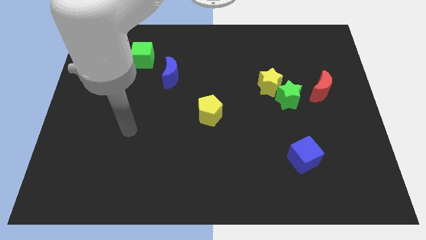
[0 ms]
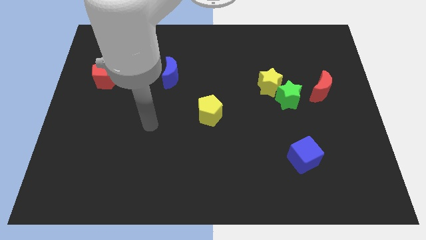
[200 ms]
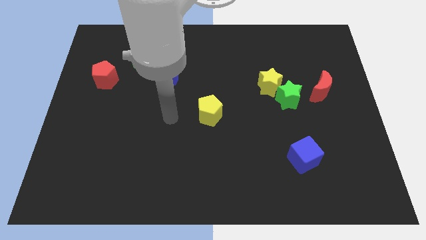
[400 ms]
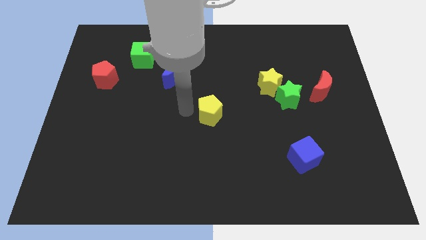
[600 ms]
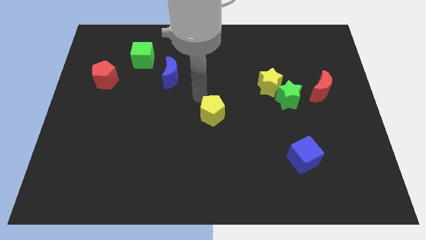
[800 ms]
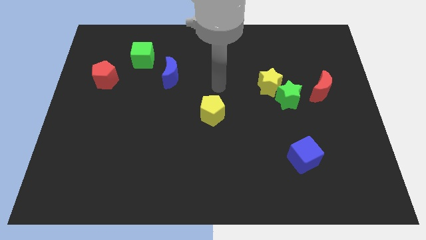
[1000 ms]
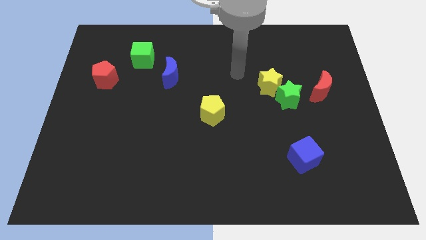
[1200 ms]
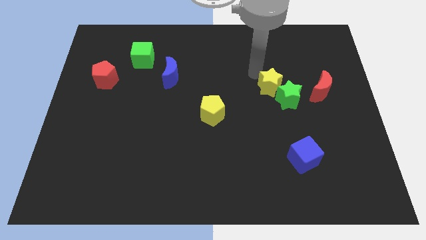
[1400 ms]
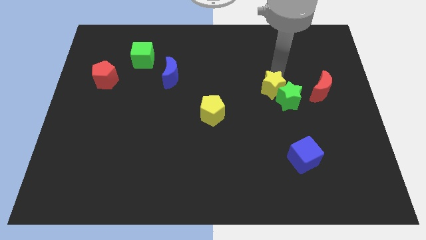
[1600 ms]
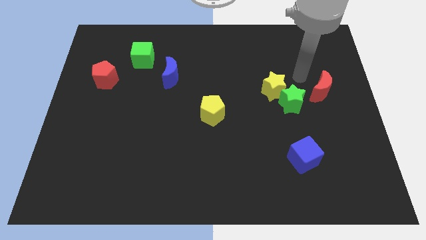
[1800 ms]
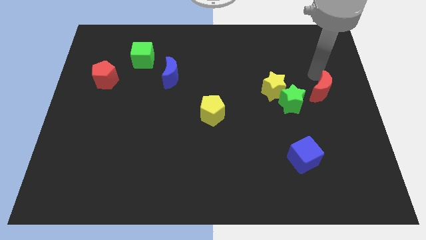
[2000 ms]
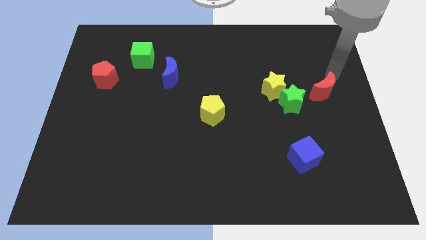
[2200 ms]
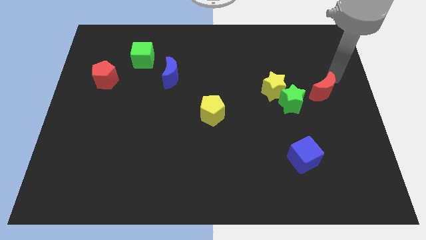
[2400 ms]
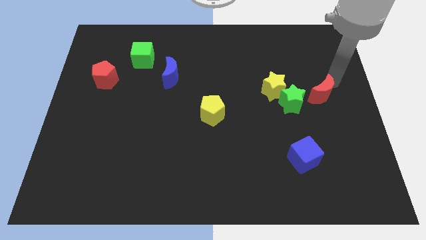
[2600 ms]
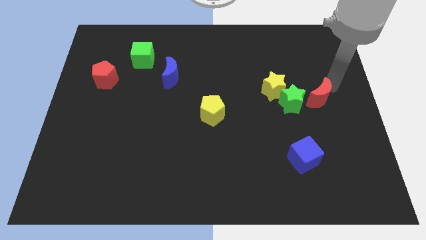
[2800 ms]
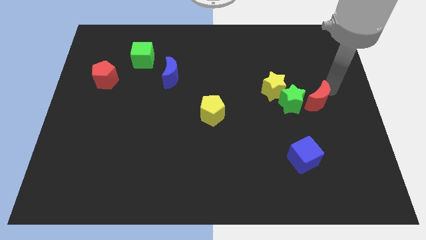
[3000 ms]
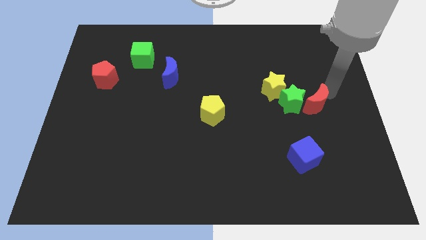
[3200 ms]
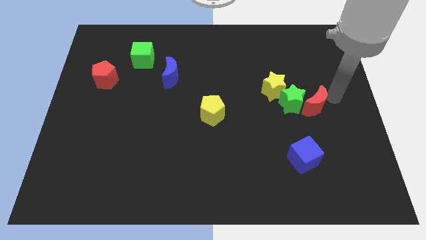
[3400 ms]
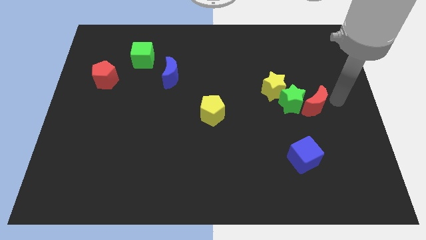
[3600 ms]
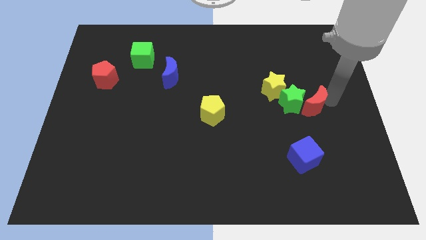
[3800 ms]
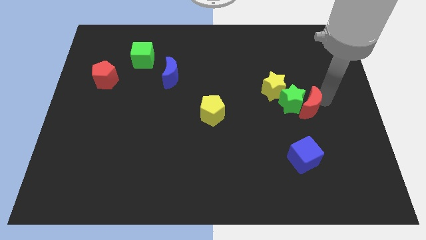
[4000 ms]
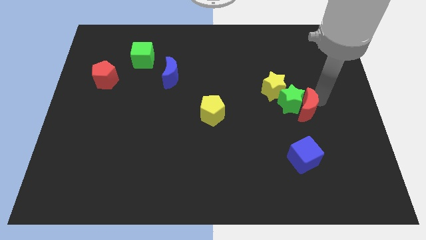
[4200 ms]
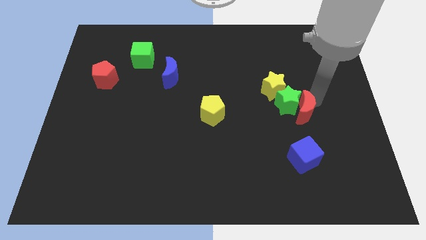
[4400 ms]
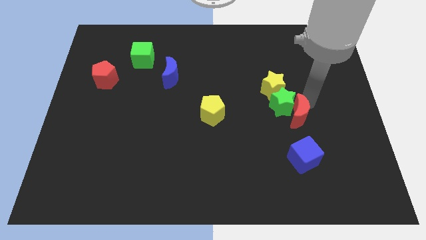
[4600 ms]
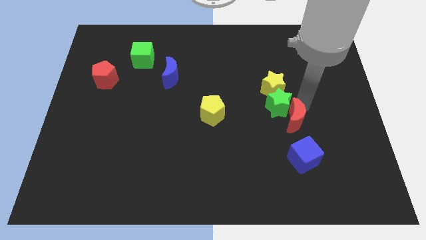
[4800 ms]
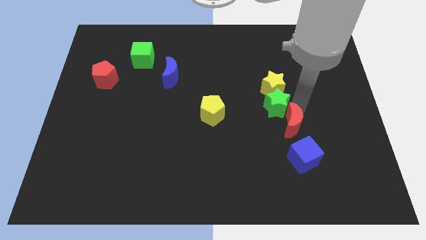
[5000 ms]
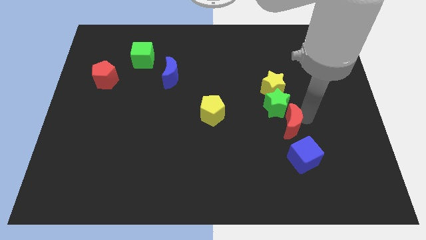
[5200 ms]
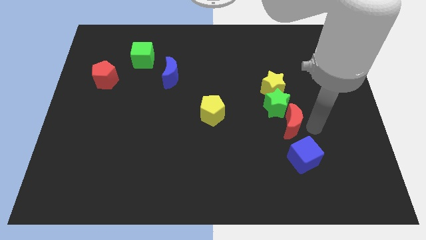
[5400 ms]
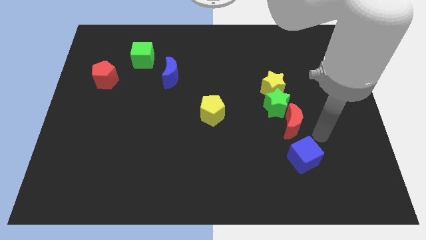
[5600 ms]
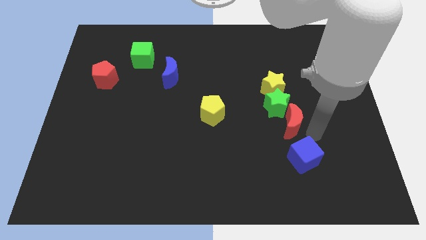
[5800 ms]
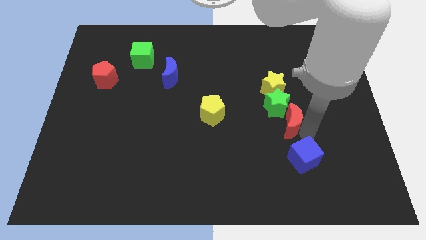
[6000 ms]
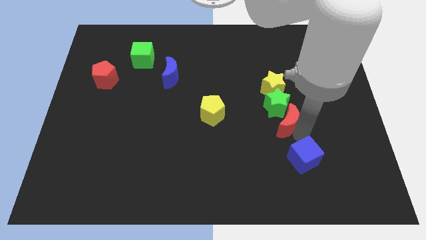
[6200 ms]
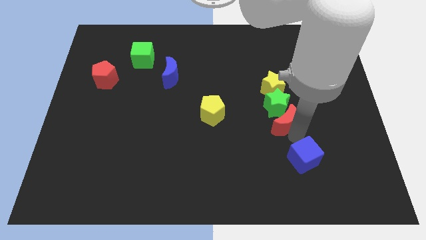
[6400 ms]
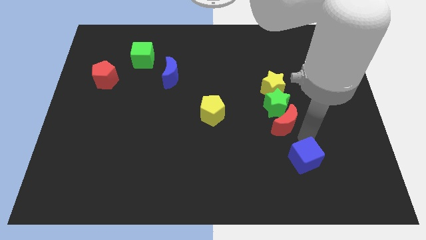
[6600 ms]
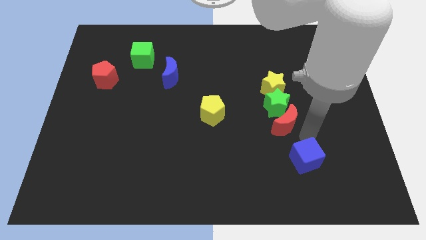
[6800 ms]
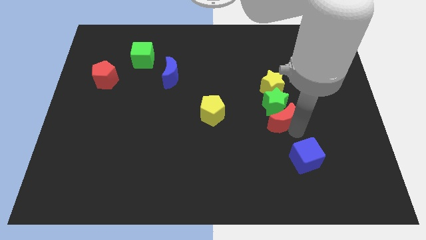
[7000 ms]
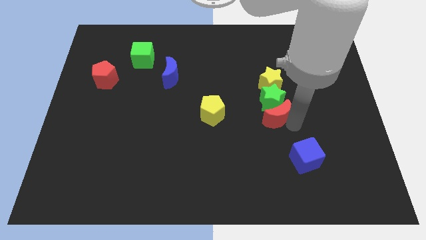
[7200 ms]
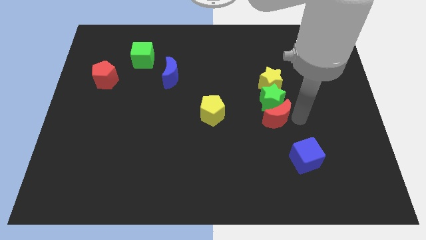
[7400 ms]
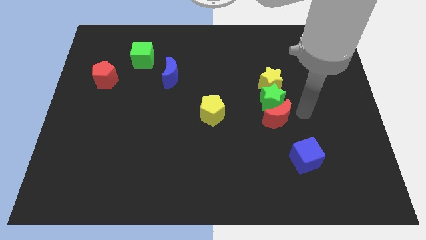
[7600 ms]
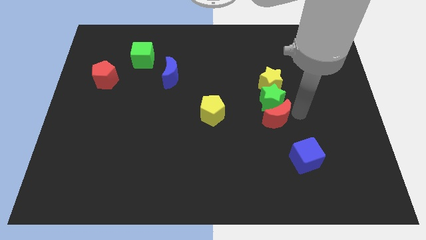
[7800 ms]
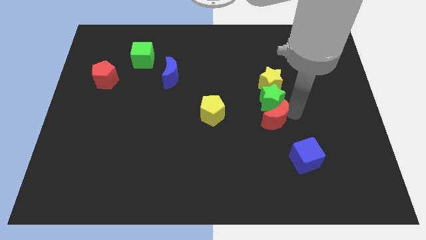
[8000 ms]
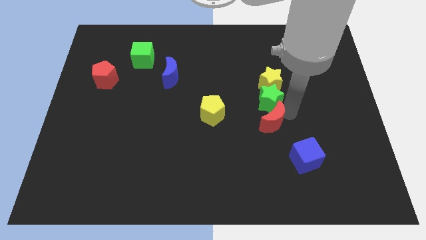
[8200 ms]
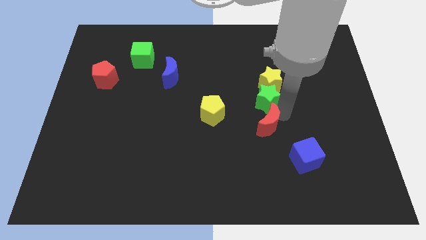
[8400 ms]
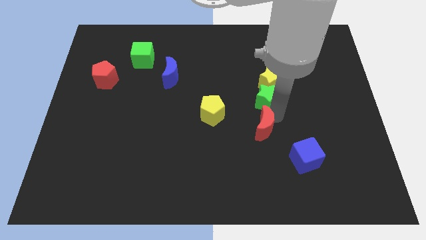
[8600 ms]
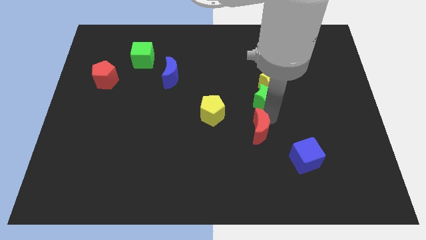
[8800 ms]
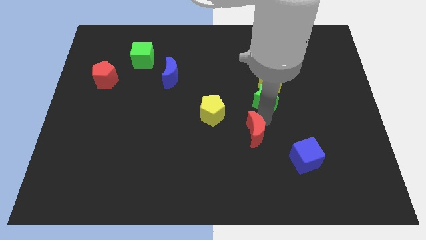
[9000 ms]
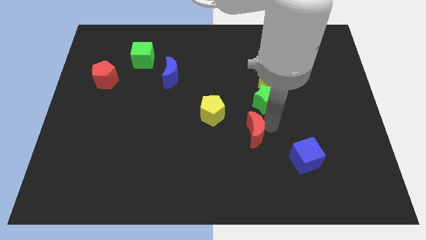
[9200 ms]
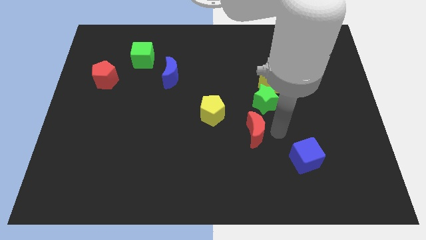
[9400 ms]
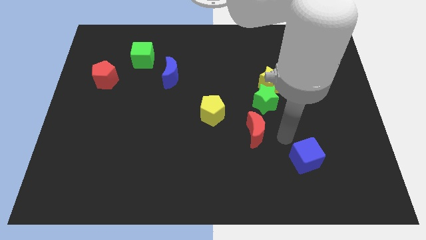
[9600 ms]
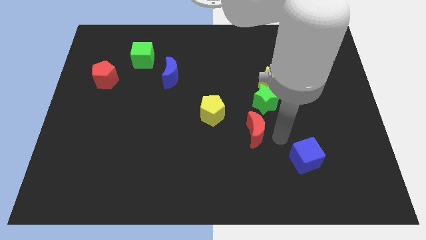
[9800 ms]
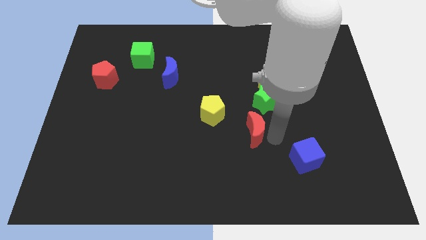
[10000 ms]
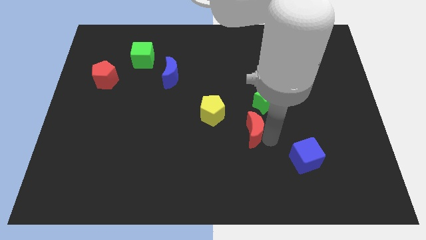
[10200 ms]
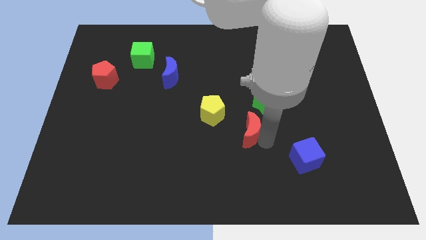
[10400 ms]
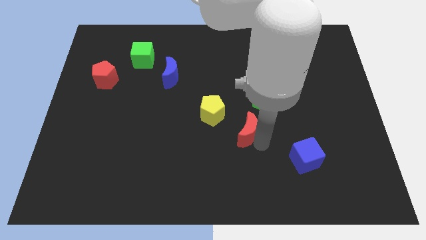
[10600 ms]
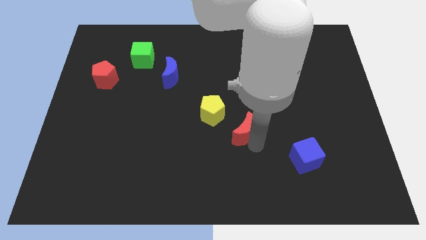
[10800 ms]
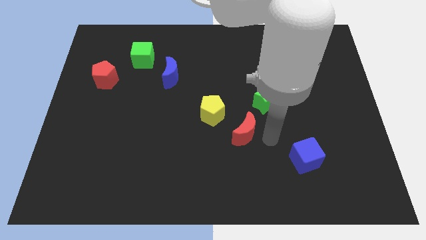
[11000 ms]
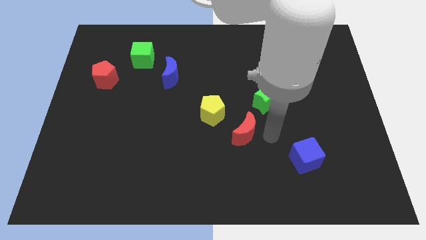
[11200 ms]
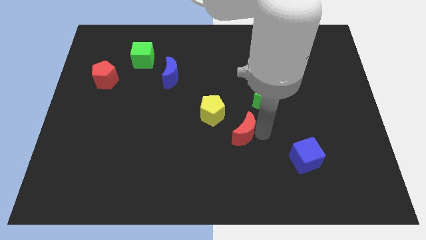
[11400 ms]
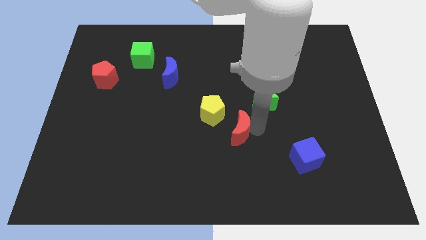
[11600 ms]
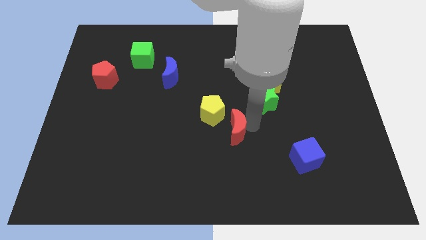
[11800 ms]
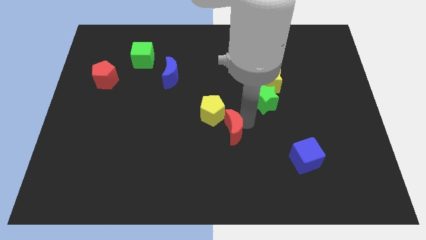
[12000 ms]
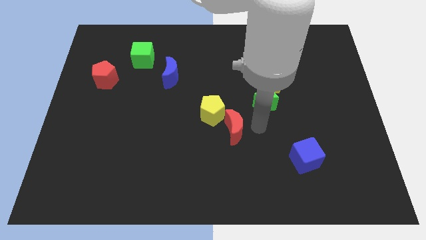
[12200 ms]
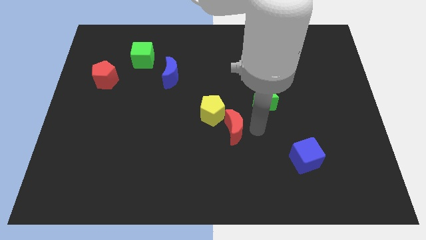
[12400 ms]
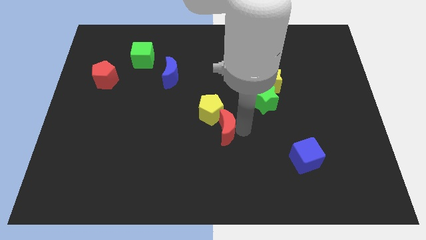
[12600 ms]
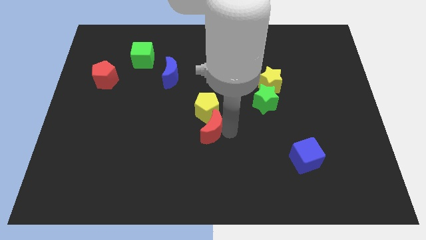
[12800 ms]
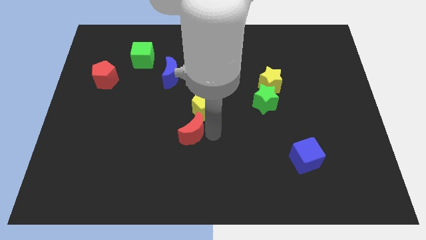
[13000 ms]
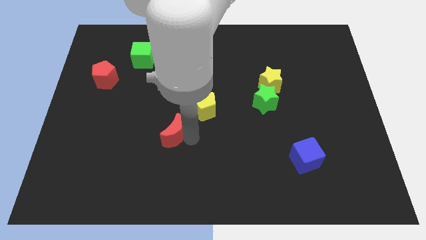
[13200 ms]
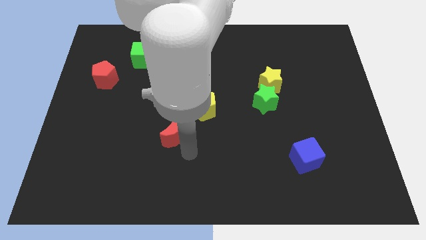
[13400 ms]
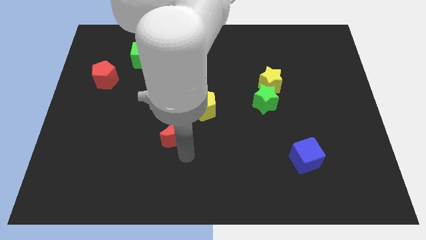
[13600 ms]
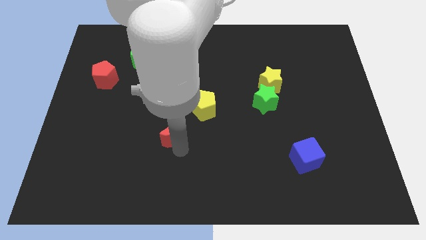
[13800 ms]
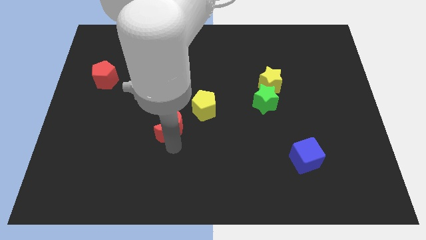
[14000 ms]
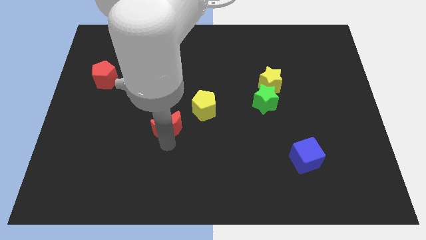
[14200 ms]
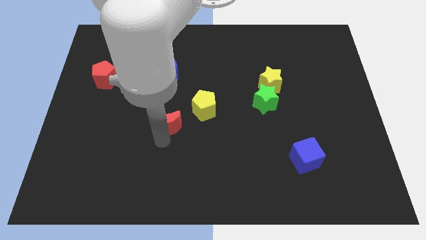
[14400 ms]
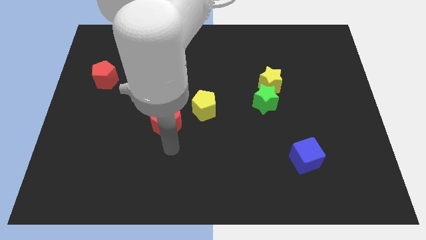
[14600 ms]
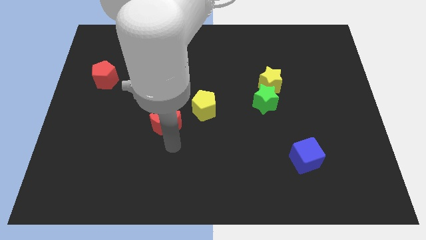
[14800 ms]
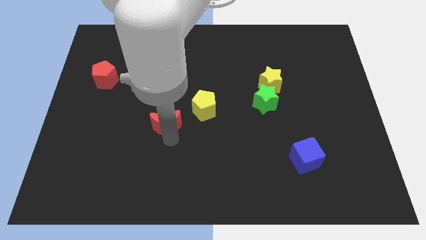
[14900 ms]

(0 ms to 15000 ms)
slide the red moon to the left of the yellow pentagon
